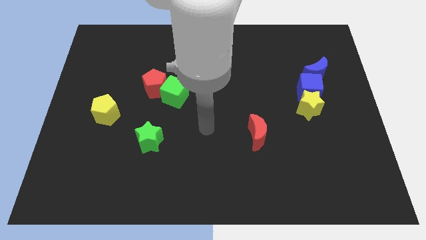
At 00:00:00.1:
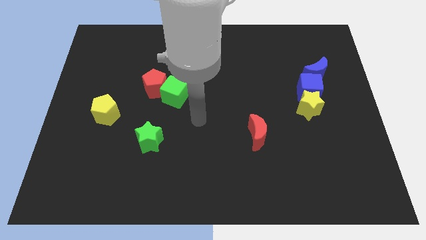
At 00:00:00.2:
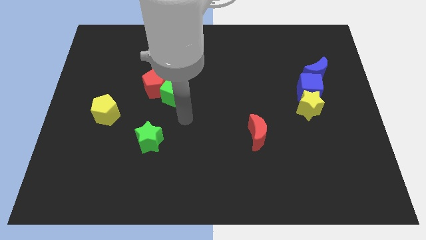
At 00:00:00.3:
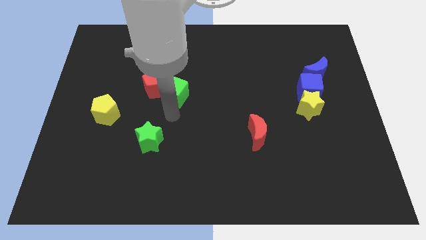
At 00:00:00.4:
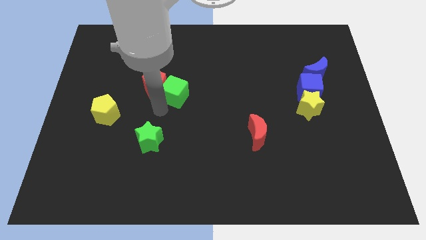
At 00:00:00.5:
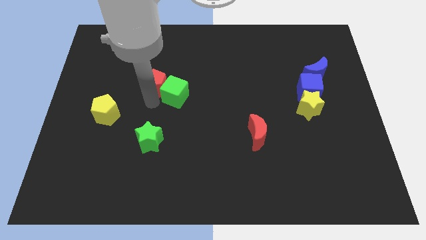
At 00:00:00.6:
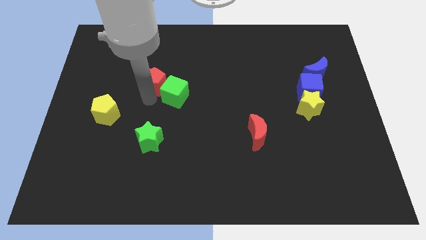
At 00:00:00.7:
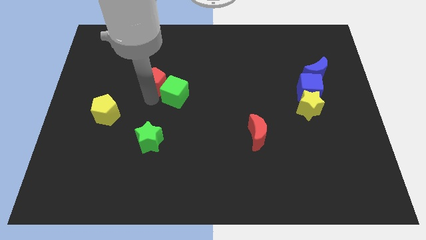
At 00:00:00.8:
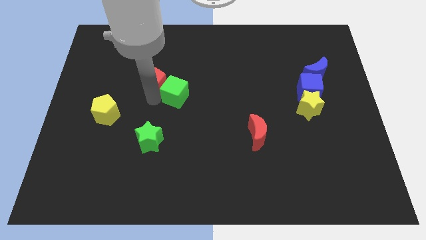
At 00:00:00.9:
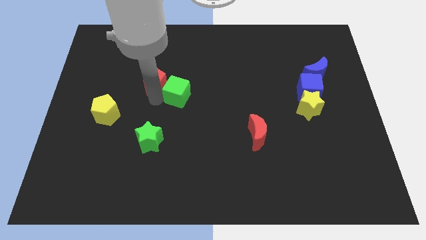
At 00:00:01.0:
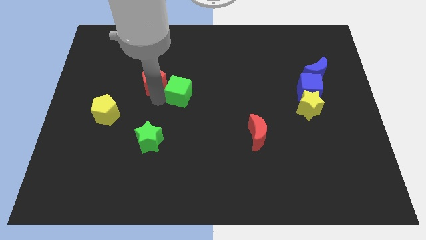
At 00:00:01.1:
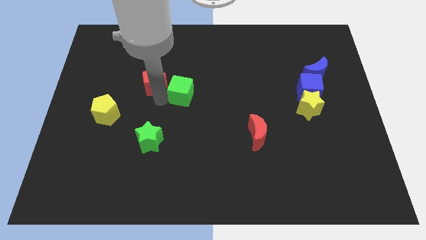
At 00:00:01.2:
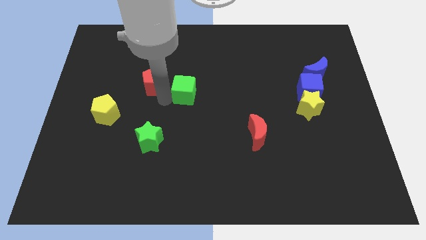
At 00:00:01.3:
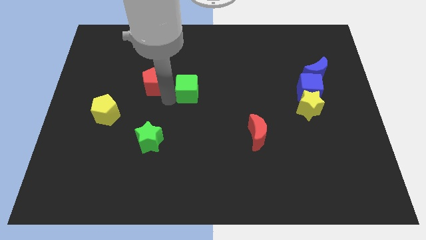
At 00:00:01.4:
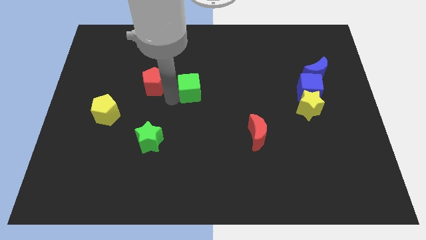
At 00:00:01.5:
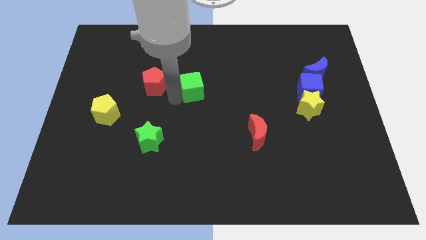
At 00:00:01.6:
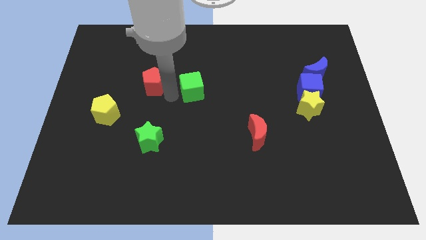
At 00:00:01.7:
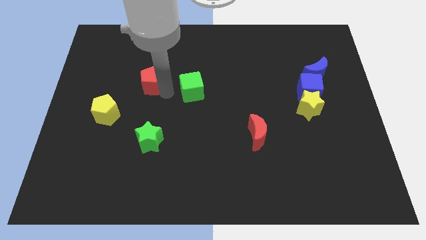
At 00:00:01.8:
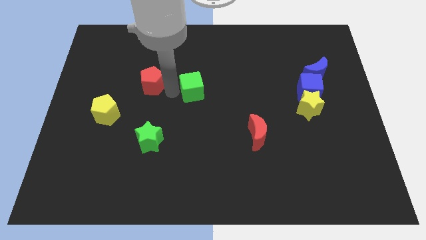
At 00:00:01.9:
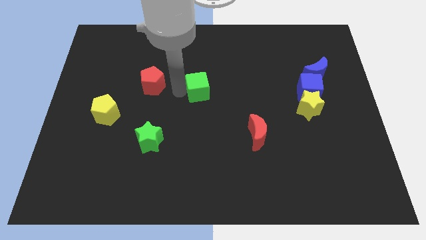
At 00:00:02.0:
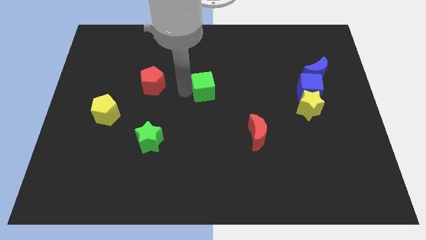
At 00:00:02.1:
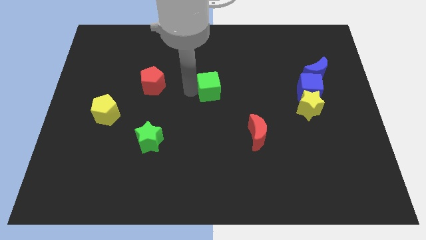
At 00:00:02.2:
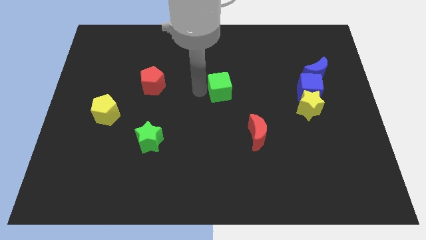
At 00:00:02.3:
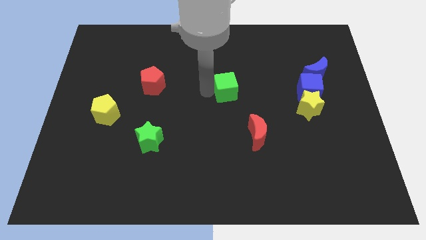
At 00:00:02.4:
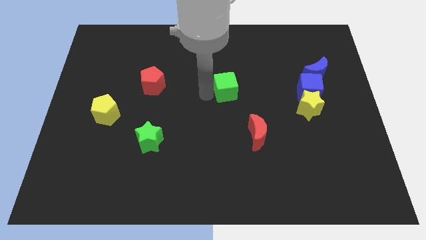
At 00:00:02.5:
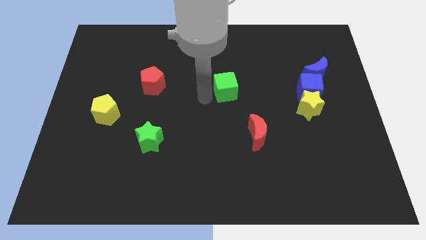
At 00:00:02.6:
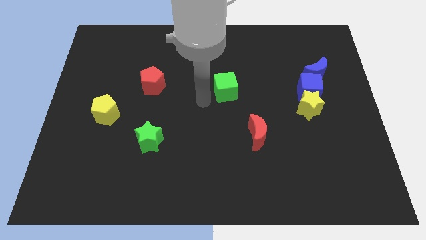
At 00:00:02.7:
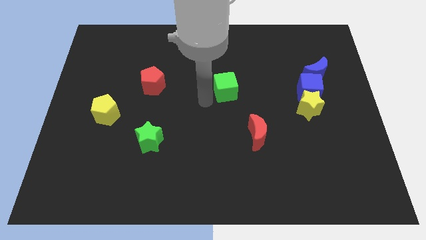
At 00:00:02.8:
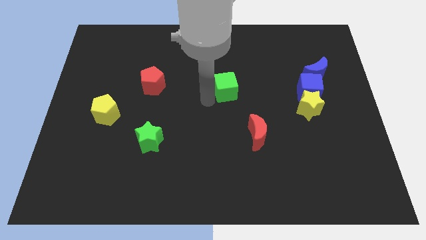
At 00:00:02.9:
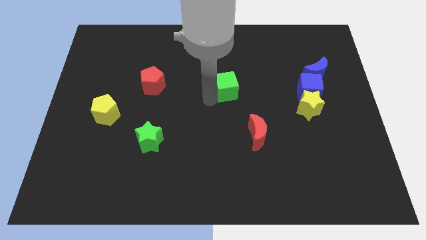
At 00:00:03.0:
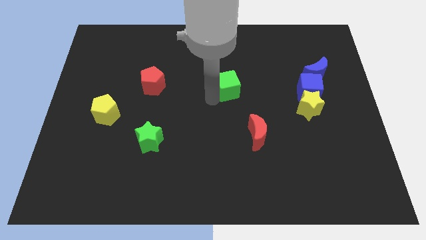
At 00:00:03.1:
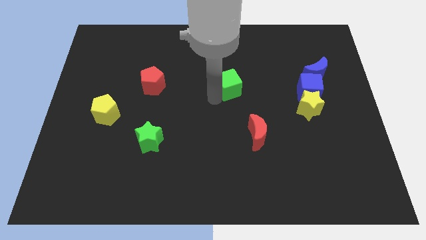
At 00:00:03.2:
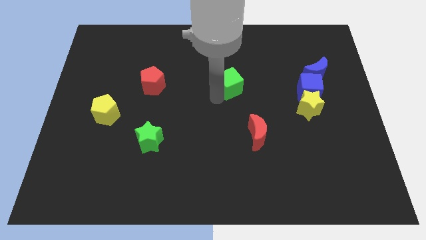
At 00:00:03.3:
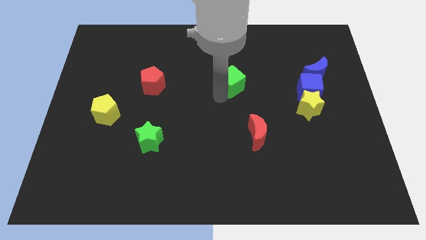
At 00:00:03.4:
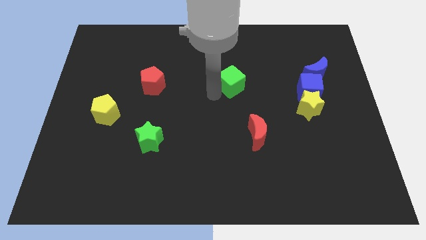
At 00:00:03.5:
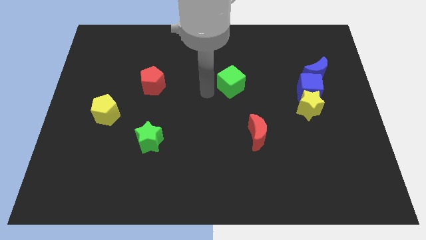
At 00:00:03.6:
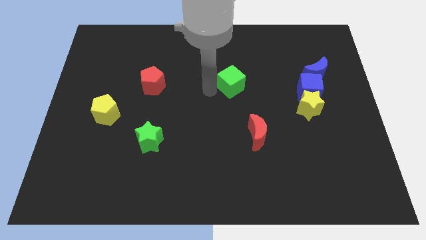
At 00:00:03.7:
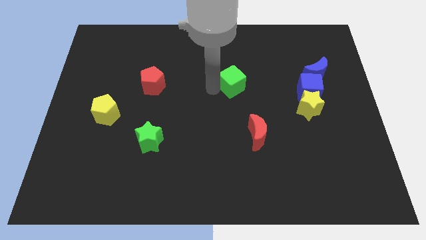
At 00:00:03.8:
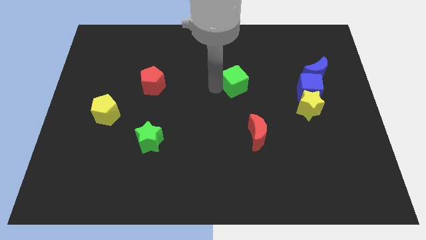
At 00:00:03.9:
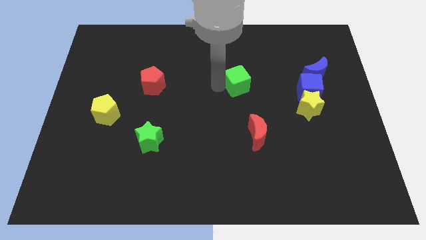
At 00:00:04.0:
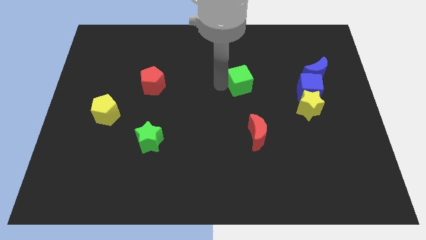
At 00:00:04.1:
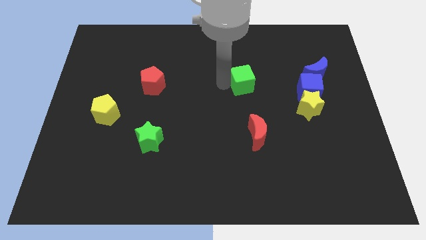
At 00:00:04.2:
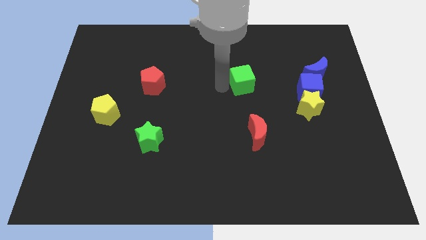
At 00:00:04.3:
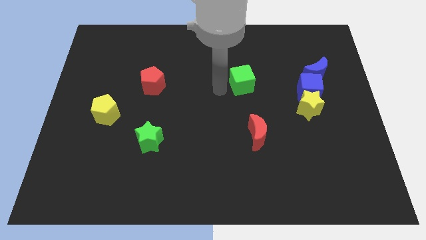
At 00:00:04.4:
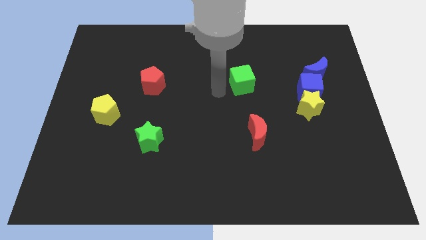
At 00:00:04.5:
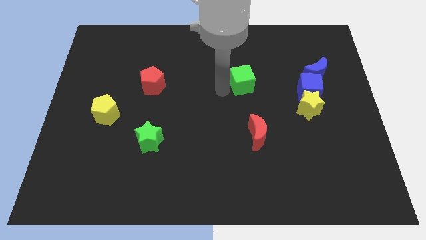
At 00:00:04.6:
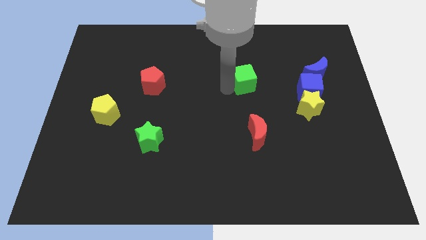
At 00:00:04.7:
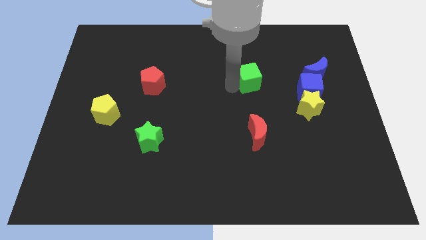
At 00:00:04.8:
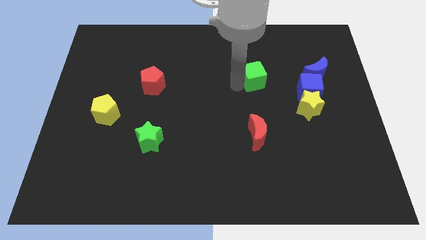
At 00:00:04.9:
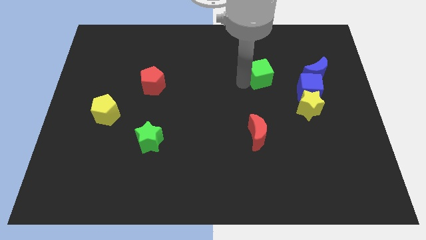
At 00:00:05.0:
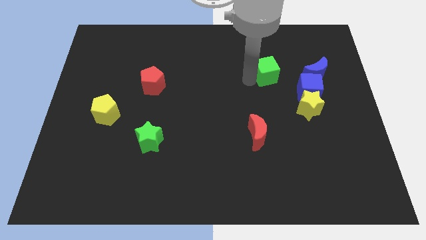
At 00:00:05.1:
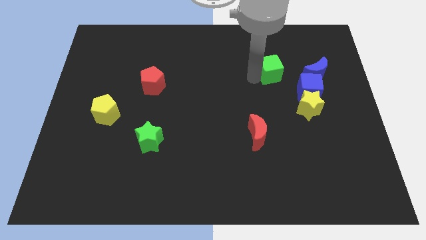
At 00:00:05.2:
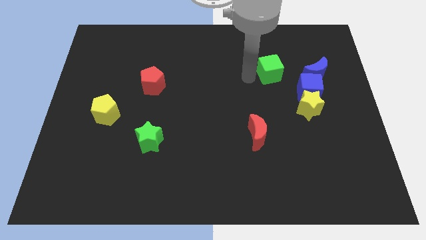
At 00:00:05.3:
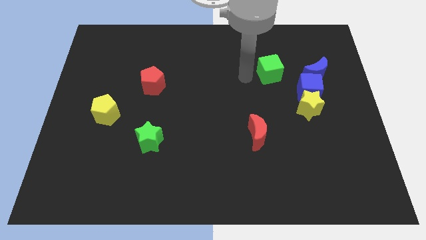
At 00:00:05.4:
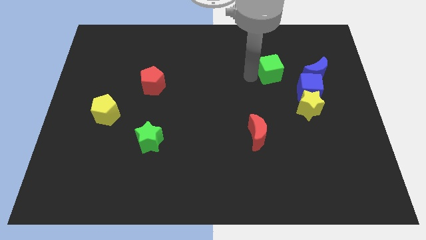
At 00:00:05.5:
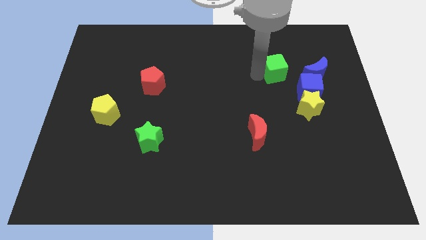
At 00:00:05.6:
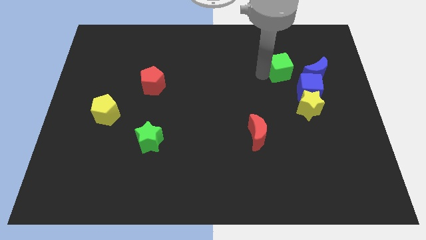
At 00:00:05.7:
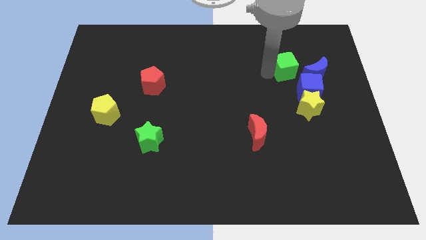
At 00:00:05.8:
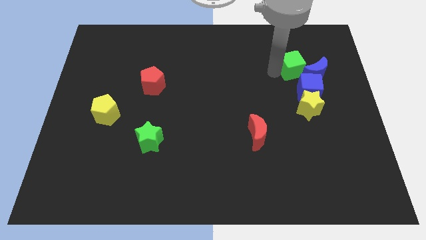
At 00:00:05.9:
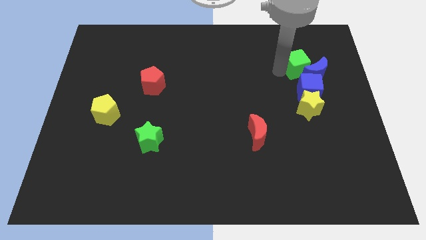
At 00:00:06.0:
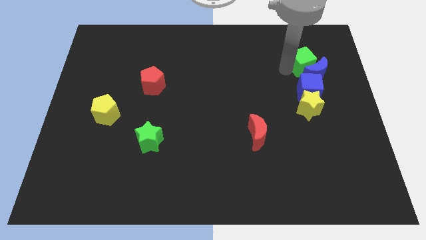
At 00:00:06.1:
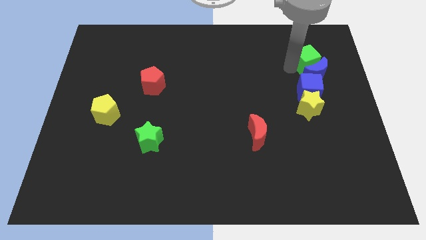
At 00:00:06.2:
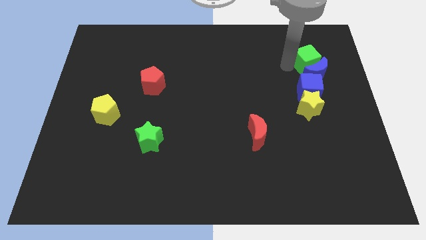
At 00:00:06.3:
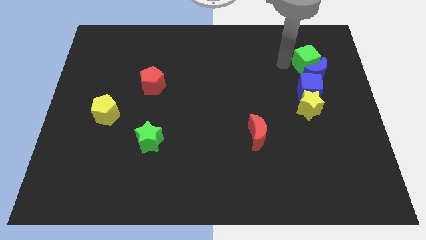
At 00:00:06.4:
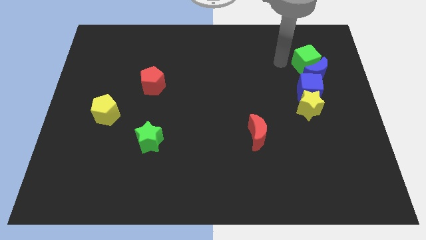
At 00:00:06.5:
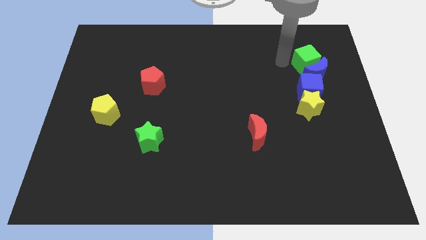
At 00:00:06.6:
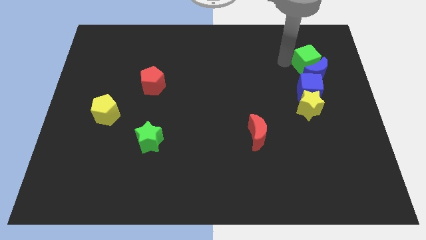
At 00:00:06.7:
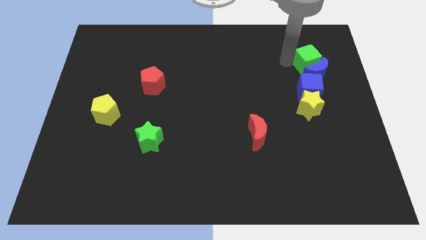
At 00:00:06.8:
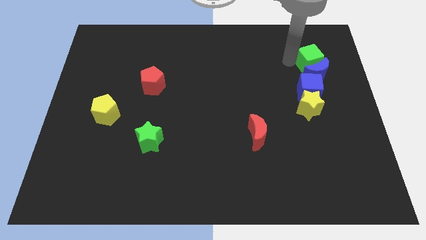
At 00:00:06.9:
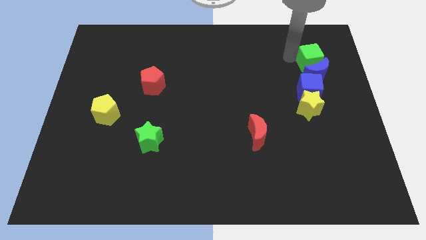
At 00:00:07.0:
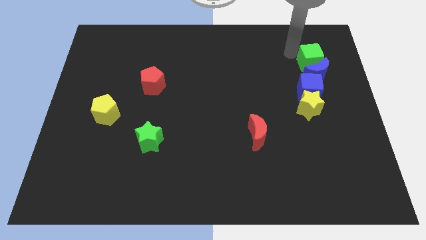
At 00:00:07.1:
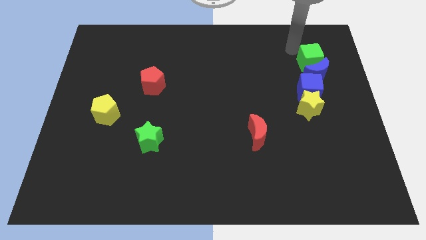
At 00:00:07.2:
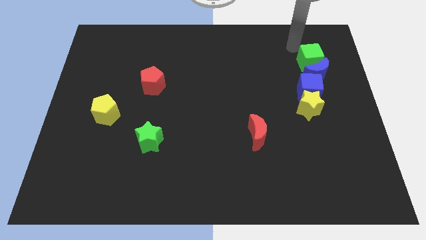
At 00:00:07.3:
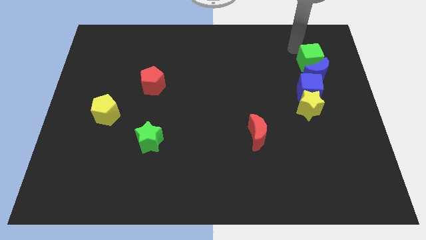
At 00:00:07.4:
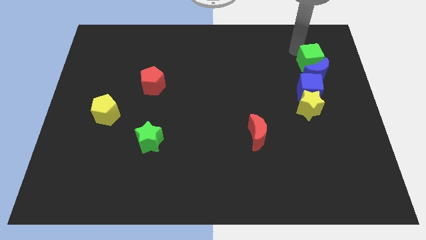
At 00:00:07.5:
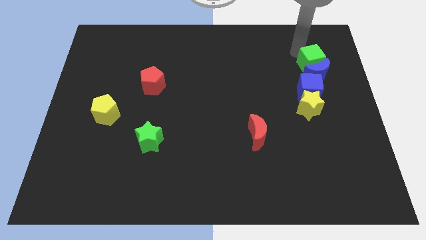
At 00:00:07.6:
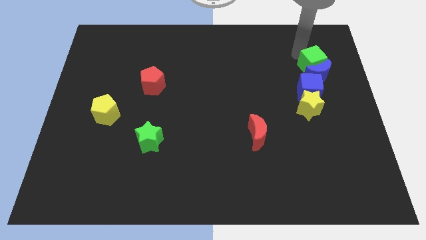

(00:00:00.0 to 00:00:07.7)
move the green cube to the top right side of the blue cube
